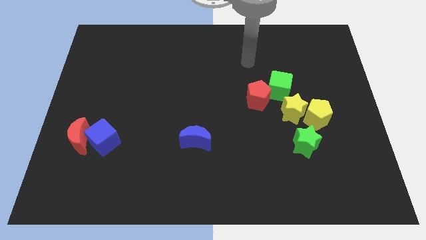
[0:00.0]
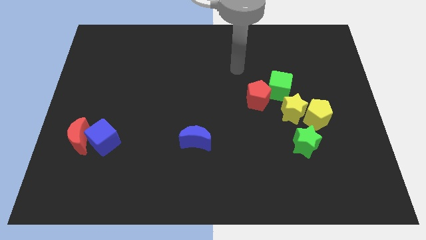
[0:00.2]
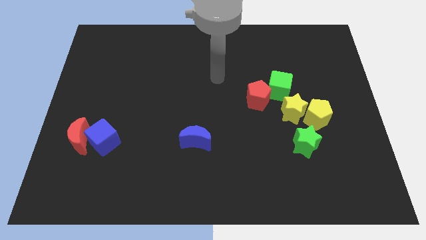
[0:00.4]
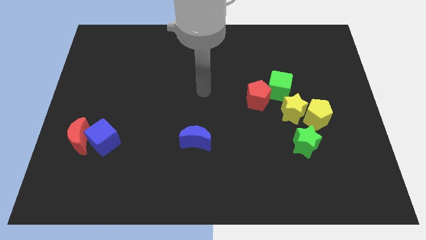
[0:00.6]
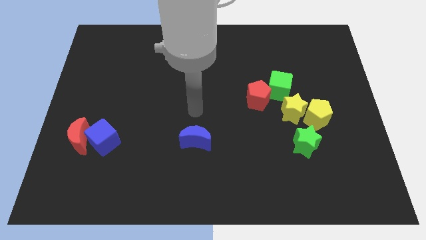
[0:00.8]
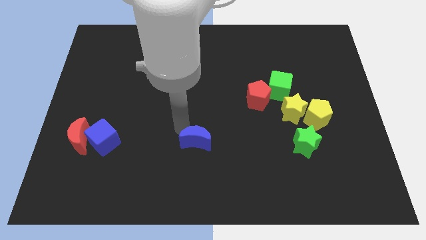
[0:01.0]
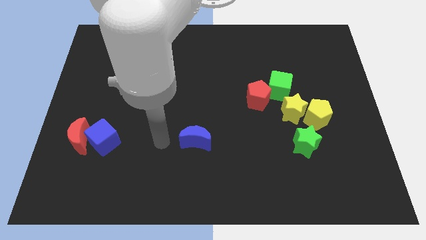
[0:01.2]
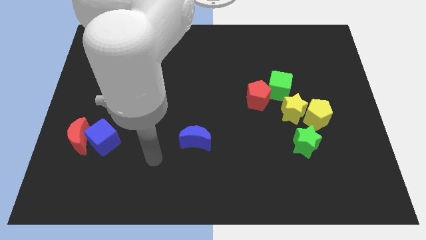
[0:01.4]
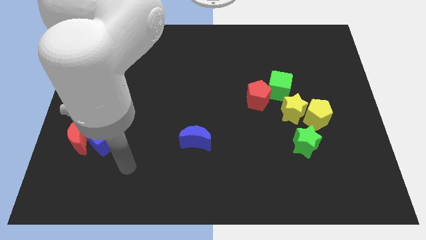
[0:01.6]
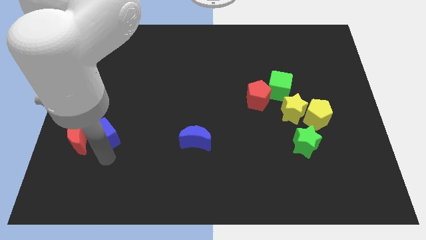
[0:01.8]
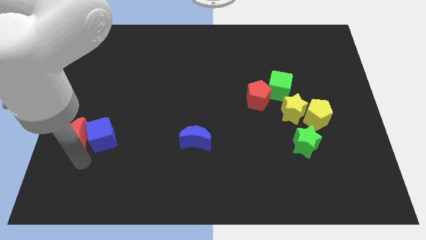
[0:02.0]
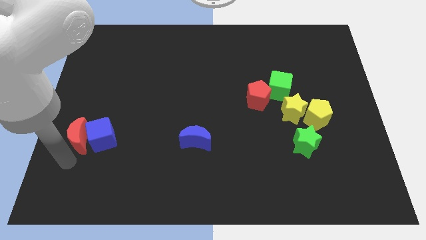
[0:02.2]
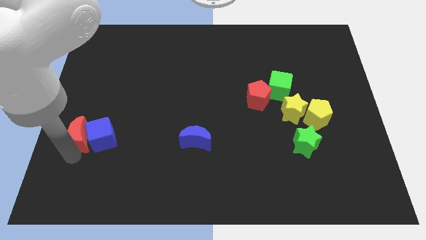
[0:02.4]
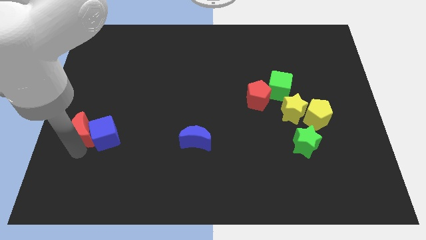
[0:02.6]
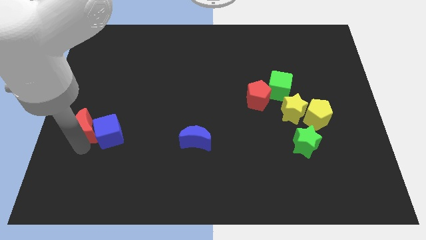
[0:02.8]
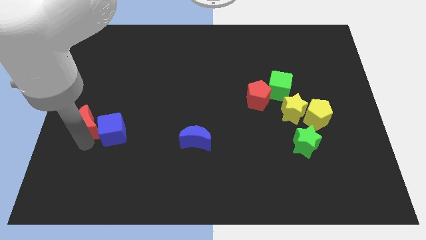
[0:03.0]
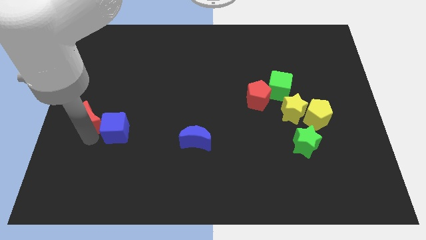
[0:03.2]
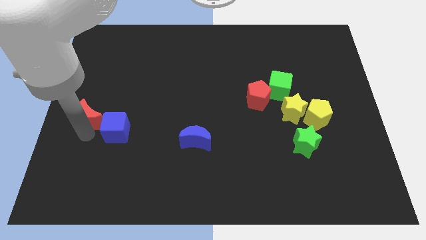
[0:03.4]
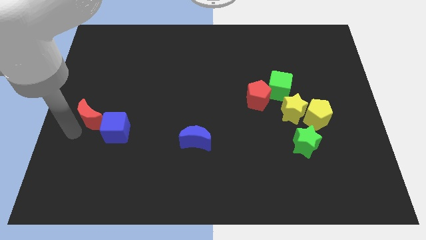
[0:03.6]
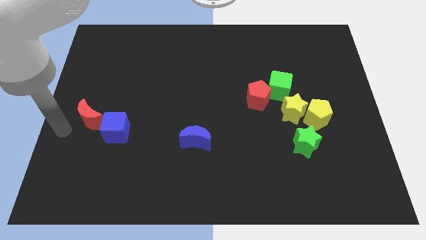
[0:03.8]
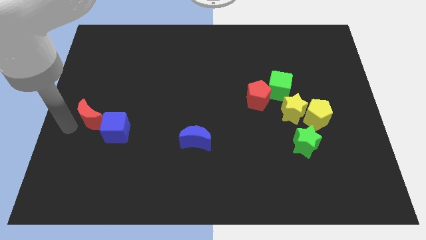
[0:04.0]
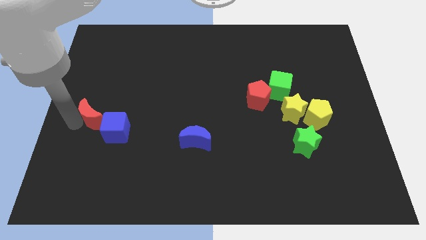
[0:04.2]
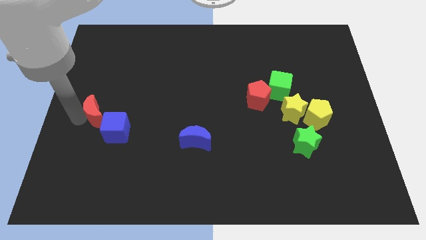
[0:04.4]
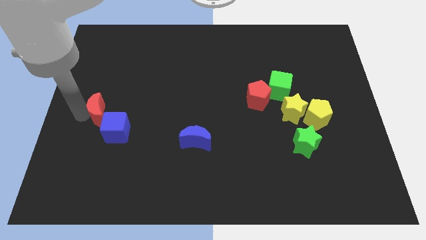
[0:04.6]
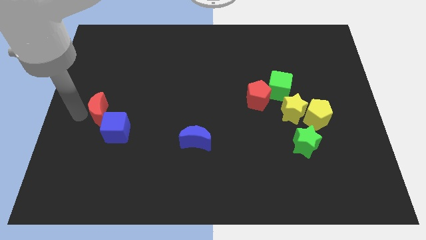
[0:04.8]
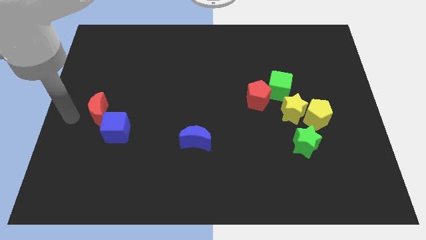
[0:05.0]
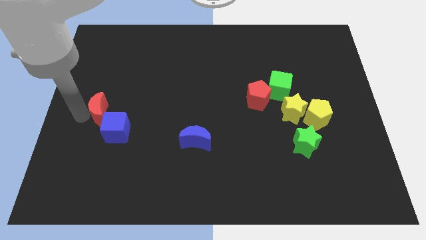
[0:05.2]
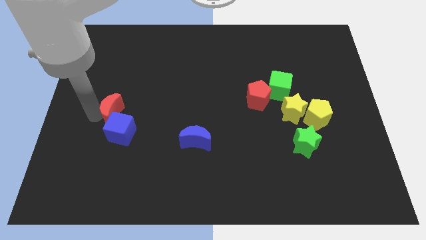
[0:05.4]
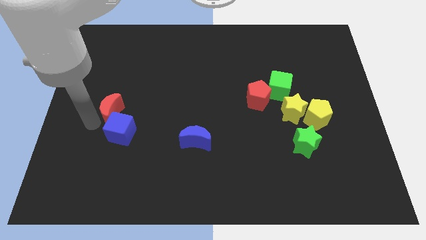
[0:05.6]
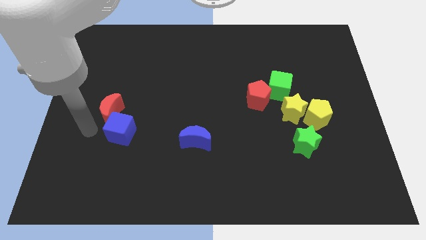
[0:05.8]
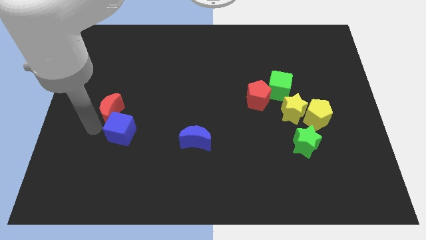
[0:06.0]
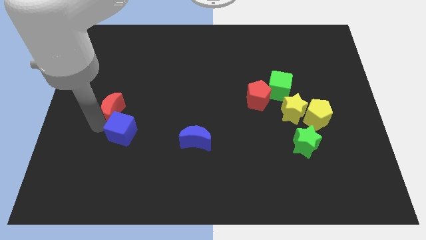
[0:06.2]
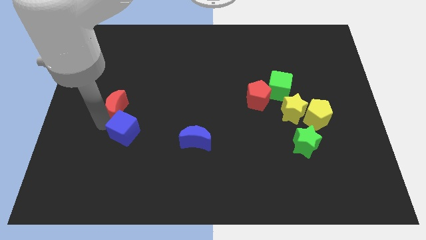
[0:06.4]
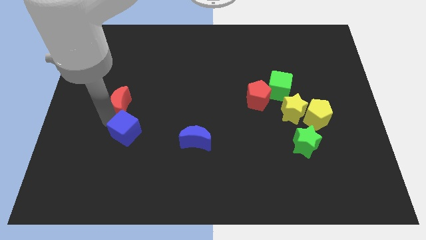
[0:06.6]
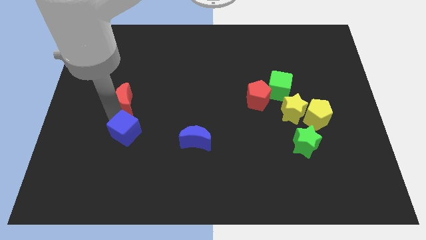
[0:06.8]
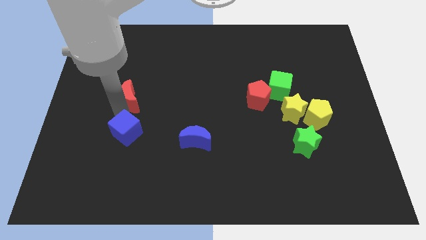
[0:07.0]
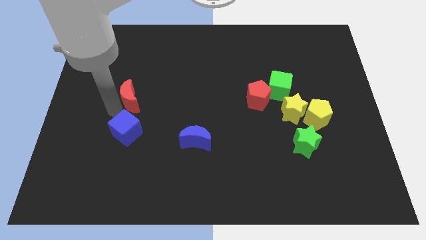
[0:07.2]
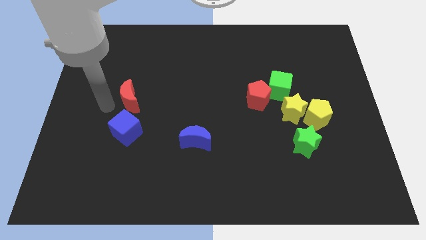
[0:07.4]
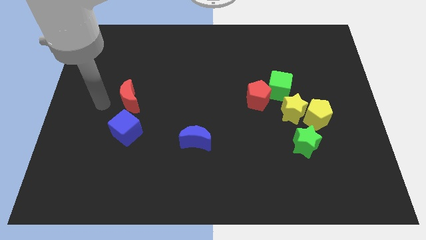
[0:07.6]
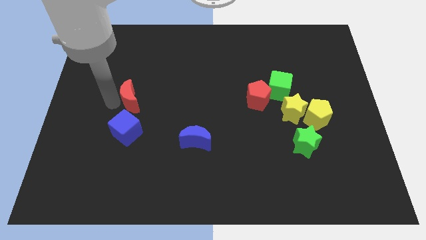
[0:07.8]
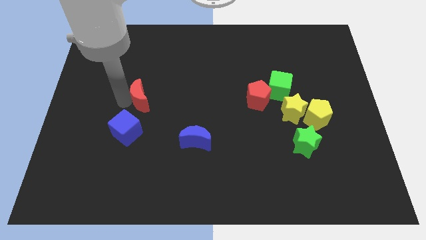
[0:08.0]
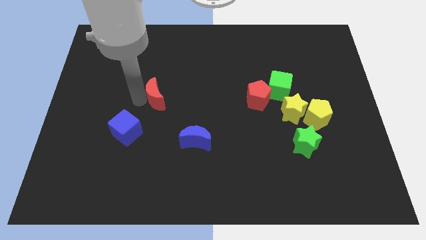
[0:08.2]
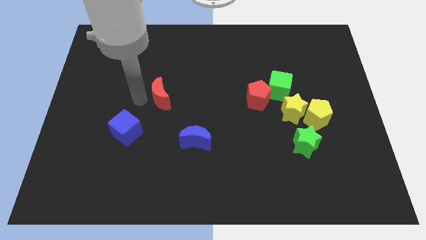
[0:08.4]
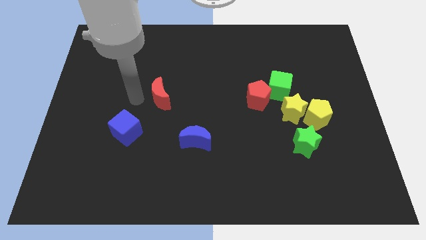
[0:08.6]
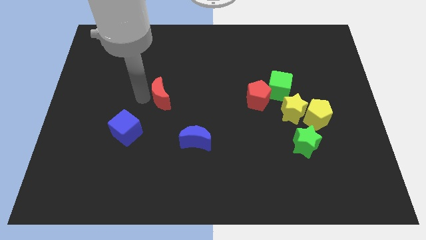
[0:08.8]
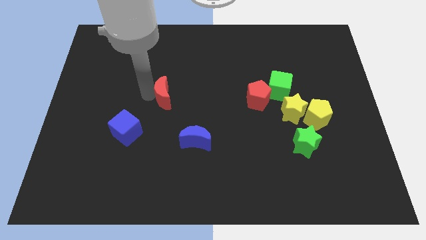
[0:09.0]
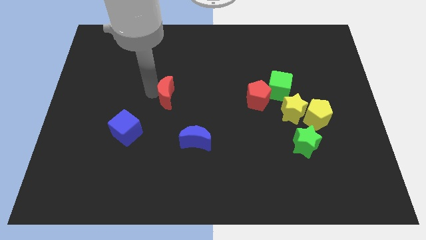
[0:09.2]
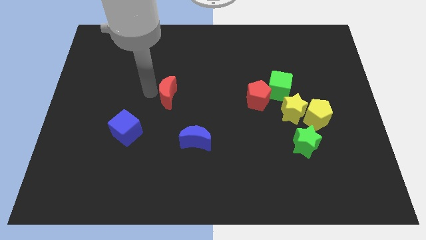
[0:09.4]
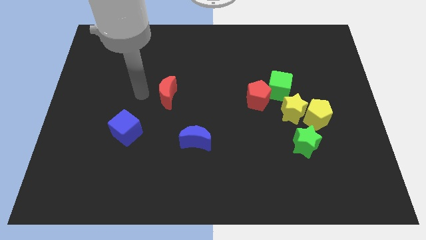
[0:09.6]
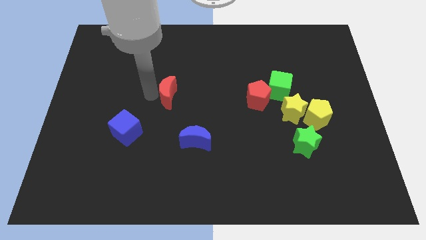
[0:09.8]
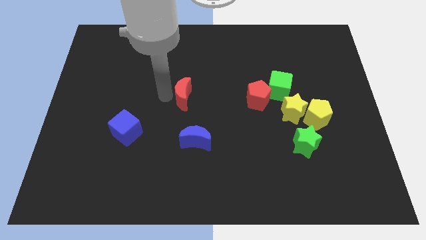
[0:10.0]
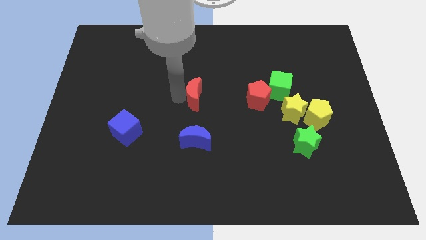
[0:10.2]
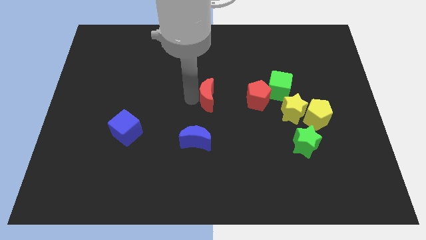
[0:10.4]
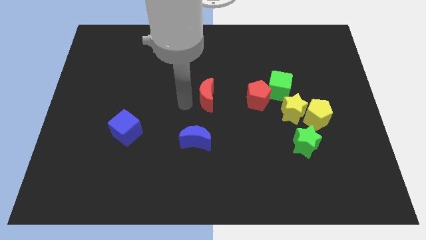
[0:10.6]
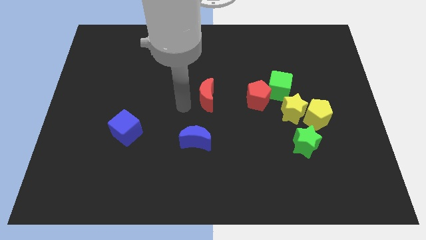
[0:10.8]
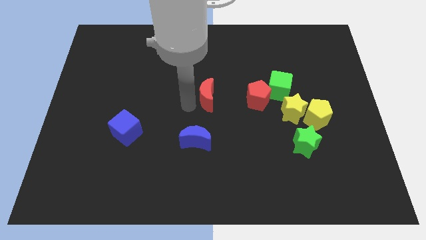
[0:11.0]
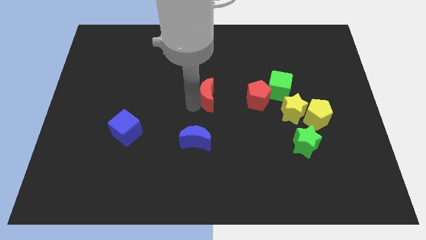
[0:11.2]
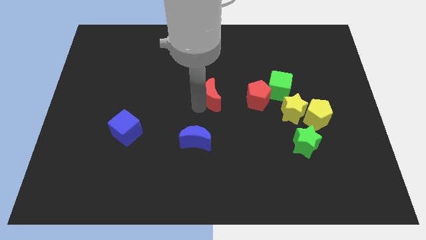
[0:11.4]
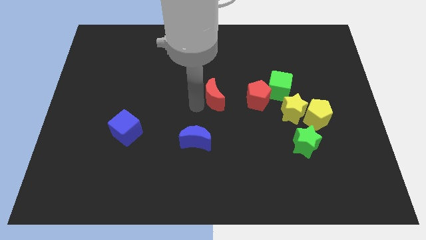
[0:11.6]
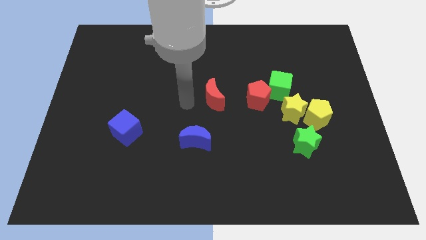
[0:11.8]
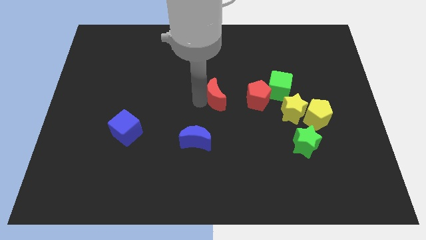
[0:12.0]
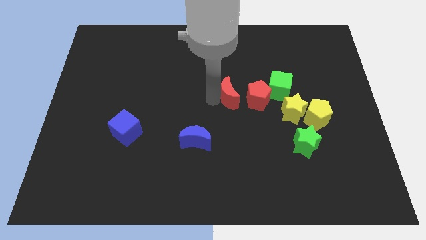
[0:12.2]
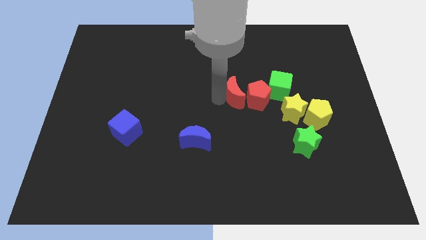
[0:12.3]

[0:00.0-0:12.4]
move the red moon next to the red pentagon
